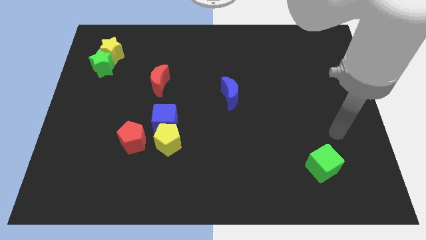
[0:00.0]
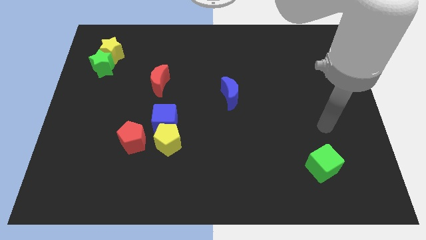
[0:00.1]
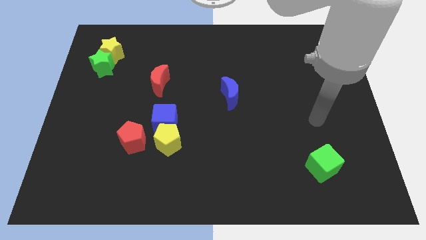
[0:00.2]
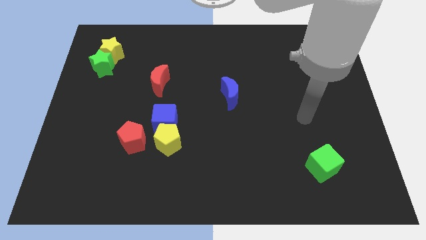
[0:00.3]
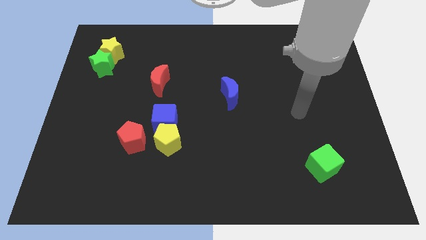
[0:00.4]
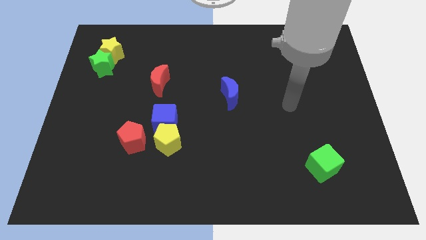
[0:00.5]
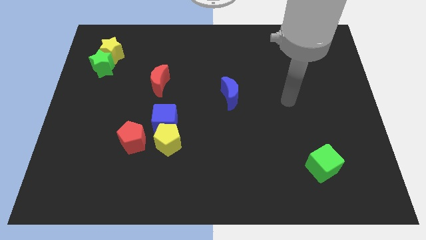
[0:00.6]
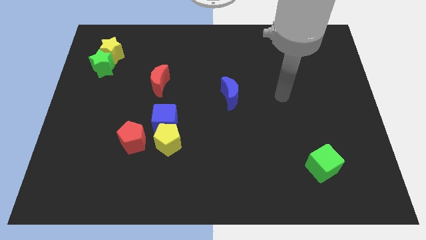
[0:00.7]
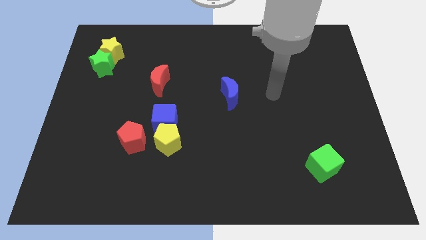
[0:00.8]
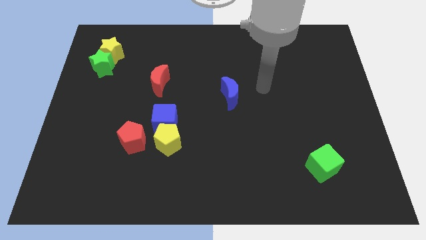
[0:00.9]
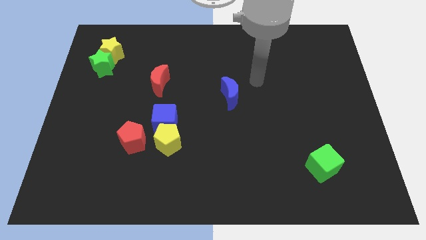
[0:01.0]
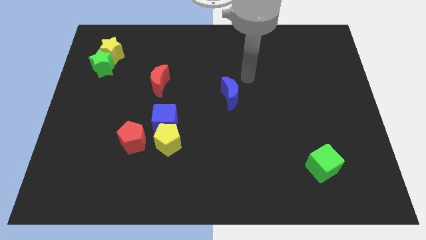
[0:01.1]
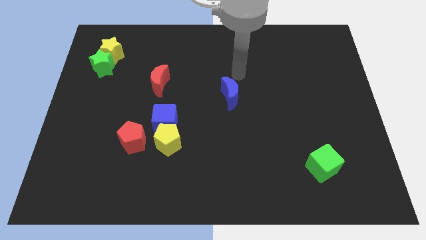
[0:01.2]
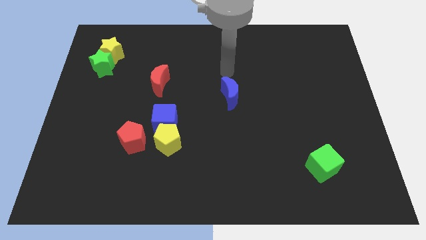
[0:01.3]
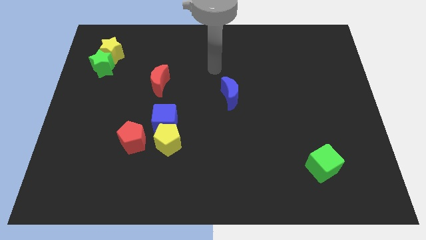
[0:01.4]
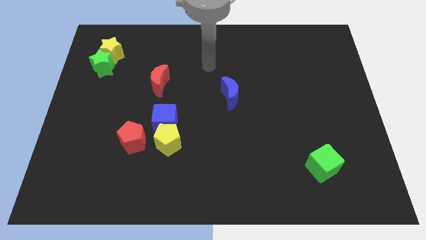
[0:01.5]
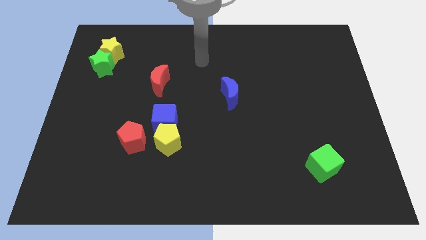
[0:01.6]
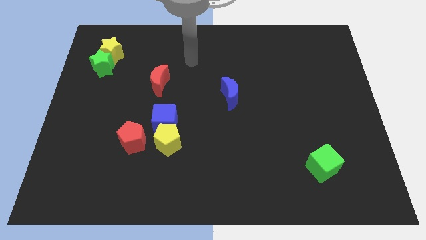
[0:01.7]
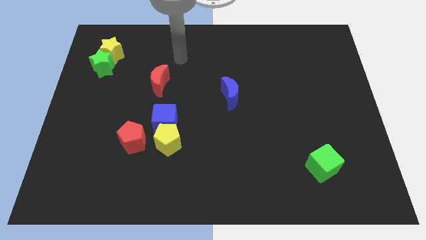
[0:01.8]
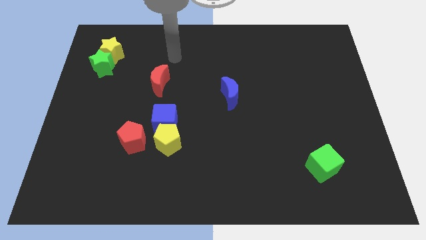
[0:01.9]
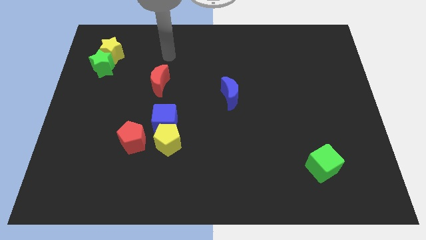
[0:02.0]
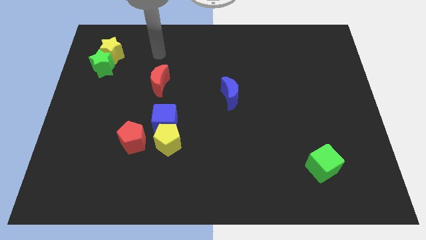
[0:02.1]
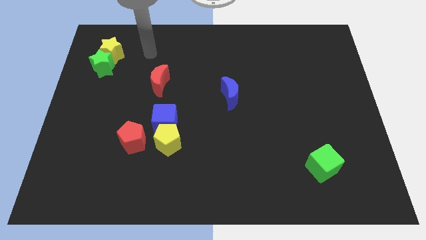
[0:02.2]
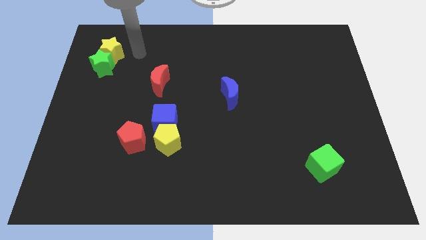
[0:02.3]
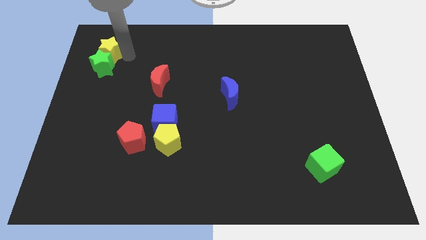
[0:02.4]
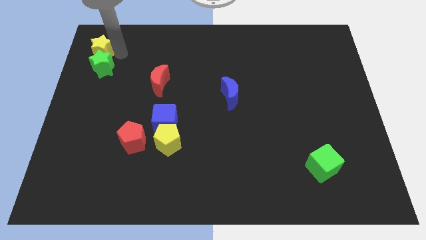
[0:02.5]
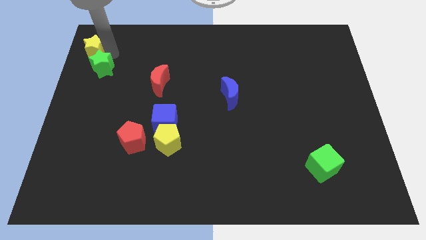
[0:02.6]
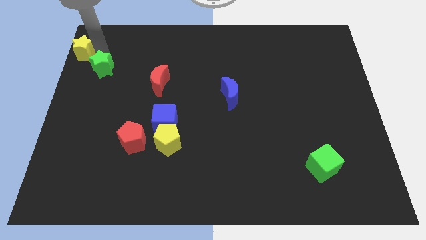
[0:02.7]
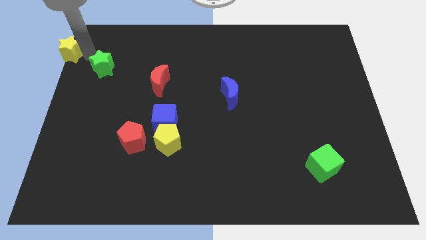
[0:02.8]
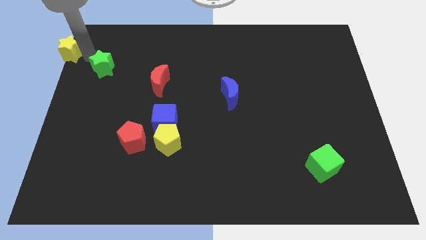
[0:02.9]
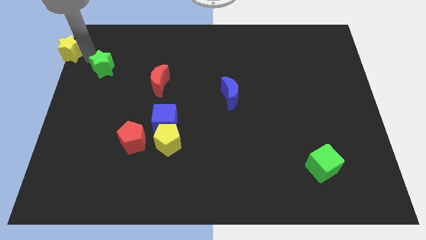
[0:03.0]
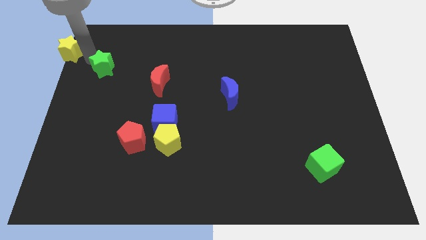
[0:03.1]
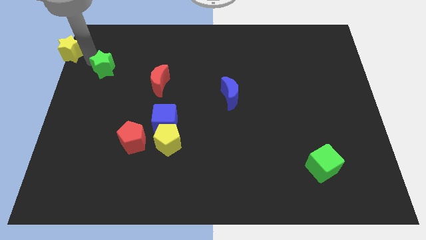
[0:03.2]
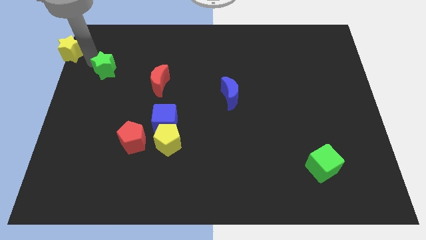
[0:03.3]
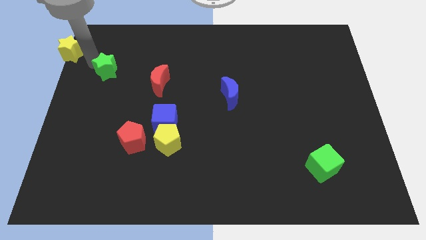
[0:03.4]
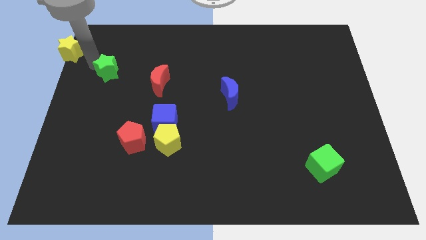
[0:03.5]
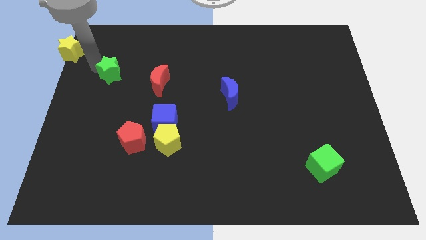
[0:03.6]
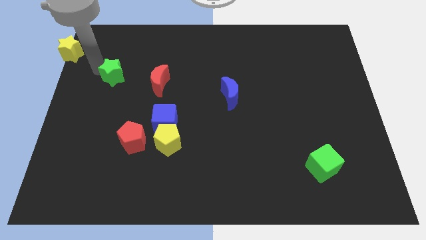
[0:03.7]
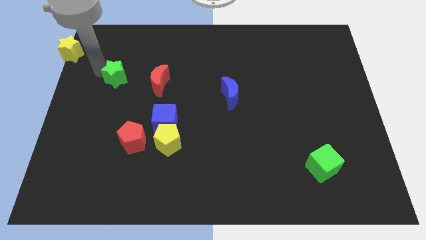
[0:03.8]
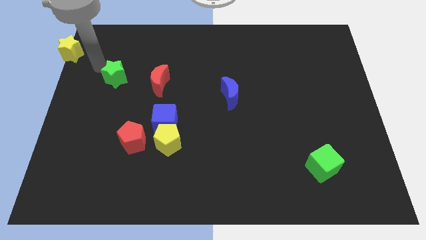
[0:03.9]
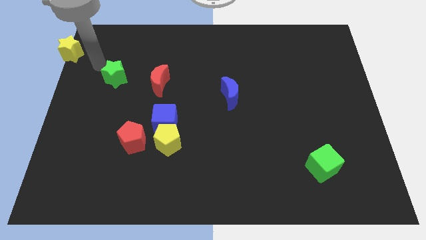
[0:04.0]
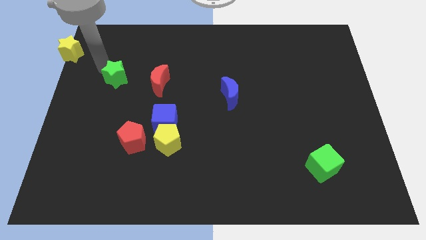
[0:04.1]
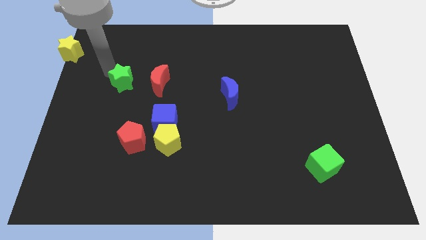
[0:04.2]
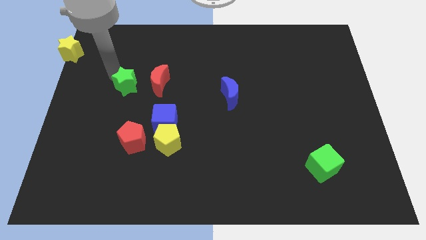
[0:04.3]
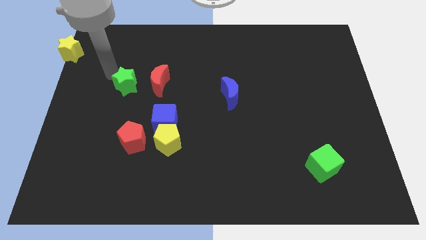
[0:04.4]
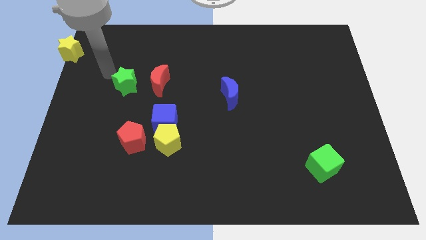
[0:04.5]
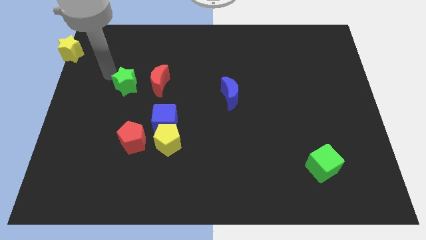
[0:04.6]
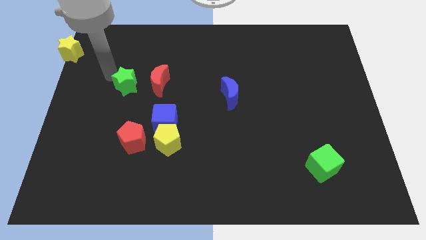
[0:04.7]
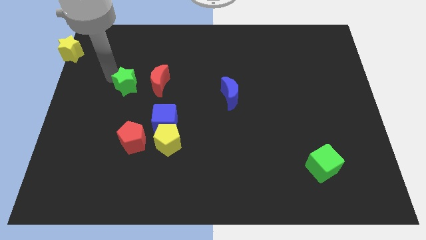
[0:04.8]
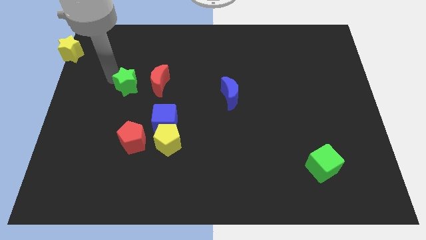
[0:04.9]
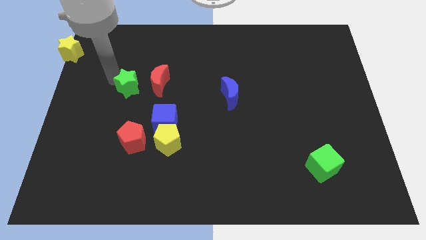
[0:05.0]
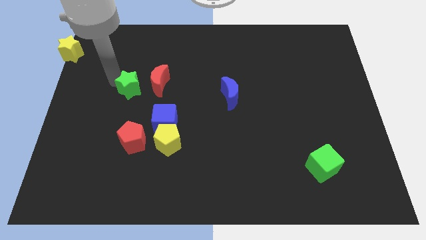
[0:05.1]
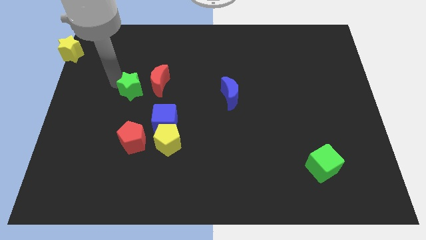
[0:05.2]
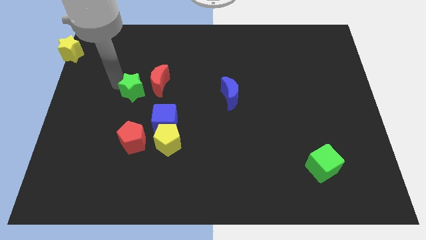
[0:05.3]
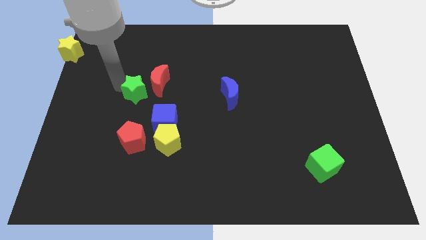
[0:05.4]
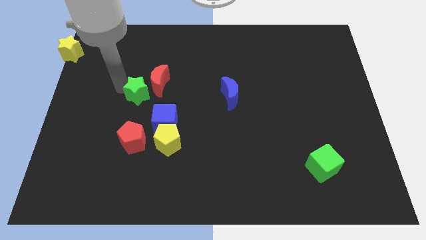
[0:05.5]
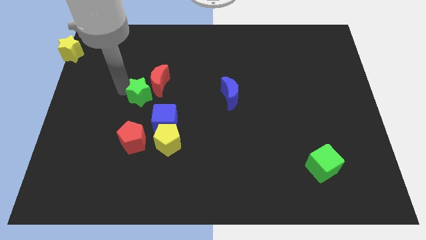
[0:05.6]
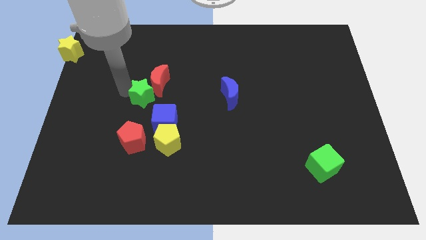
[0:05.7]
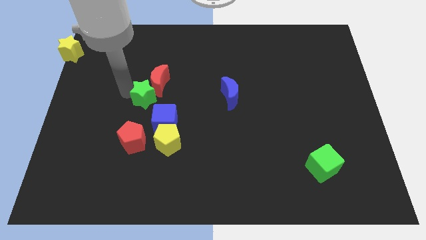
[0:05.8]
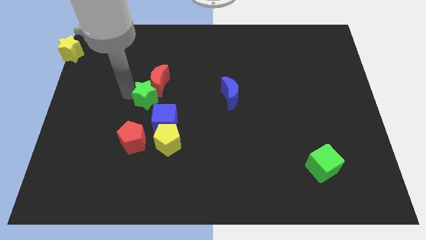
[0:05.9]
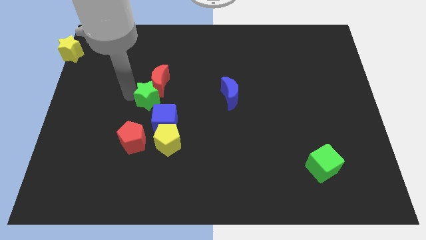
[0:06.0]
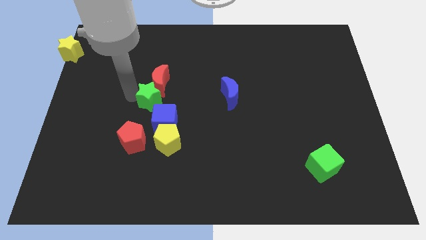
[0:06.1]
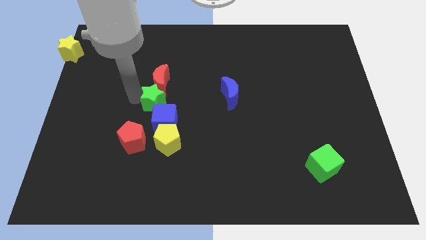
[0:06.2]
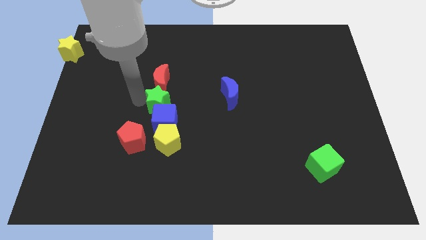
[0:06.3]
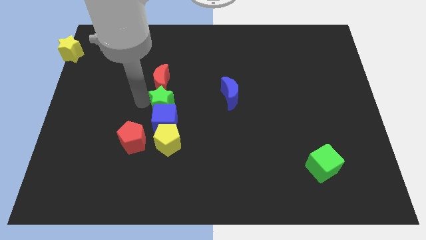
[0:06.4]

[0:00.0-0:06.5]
move the green star diagonally down and to the right

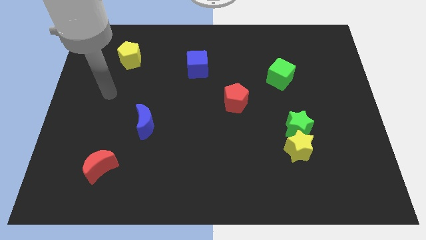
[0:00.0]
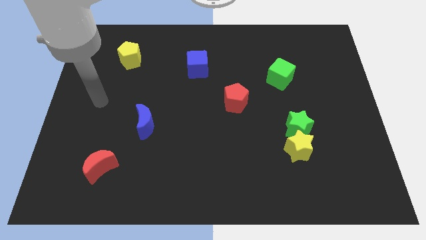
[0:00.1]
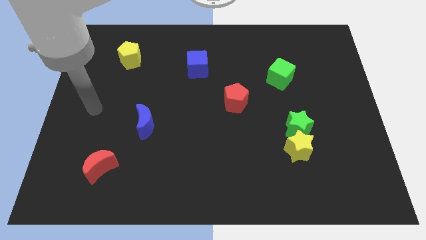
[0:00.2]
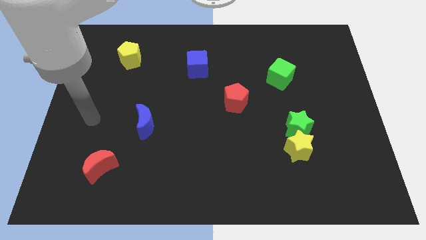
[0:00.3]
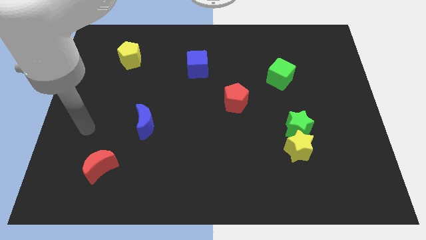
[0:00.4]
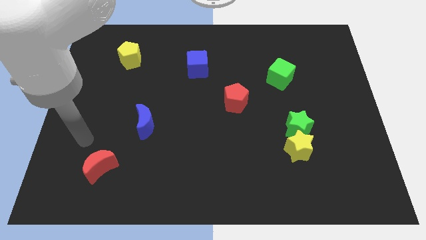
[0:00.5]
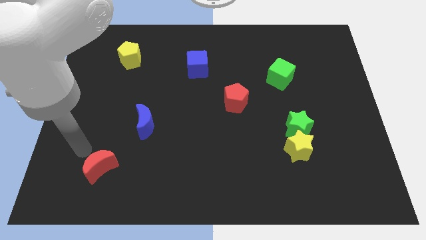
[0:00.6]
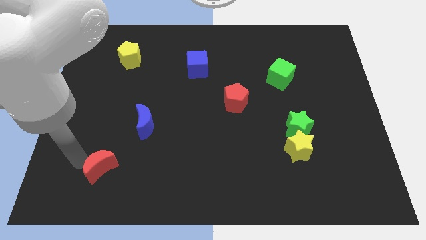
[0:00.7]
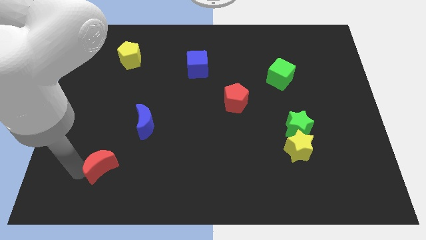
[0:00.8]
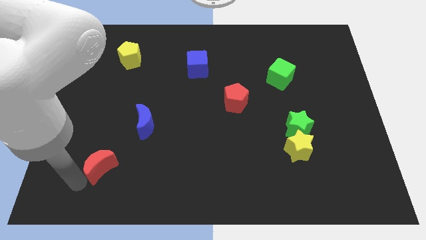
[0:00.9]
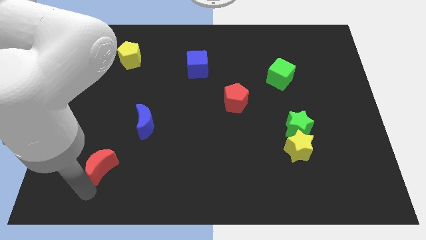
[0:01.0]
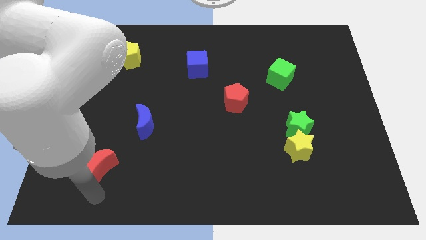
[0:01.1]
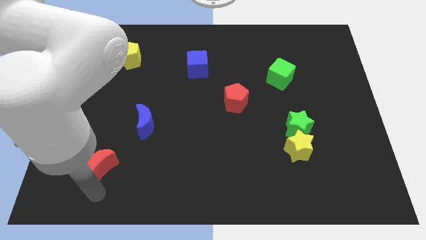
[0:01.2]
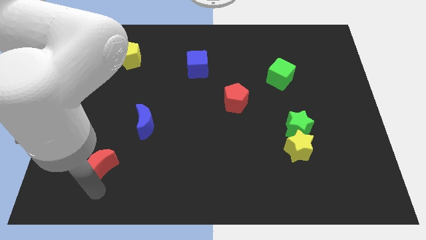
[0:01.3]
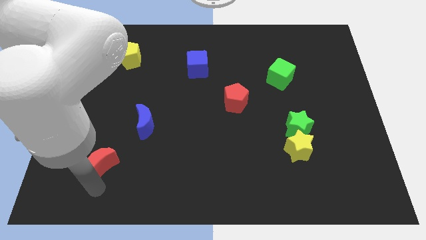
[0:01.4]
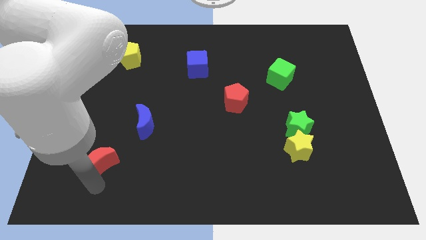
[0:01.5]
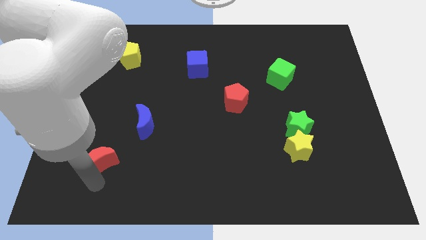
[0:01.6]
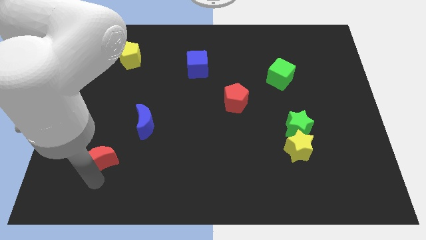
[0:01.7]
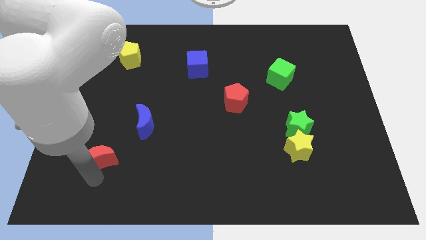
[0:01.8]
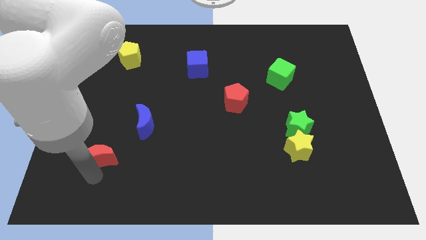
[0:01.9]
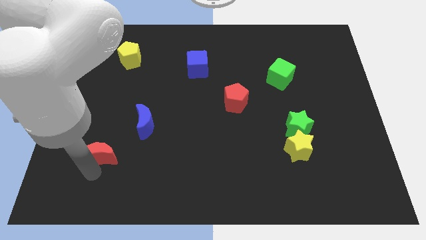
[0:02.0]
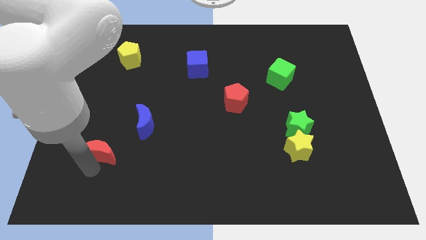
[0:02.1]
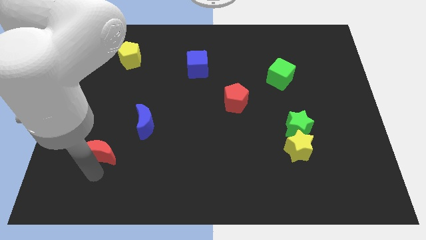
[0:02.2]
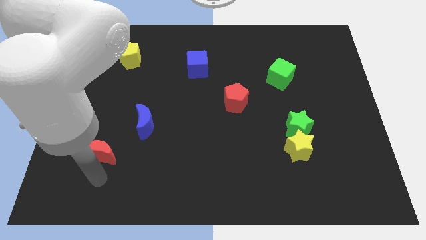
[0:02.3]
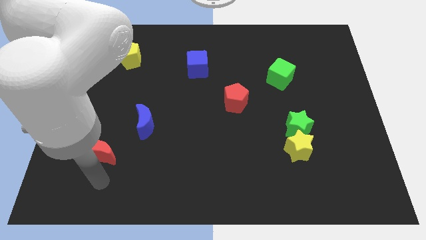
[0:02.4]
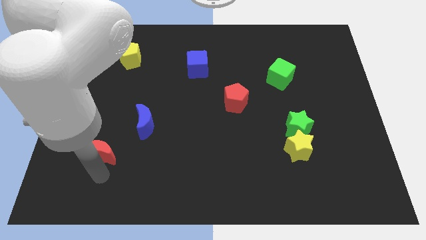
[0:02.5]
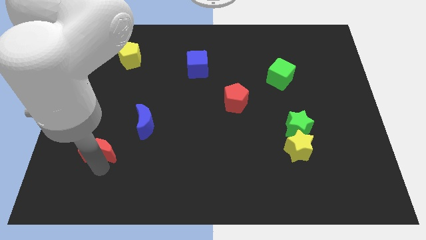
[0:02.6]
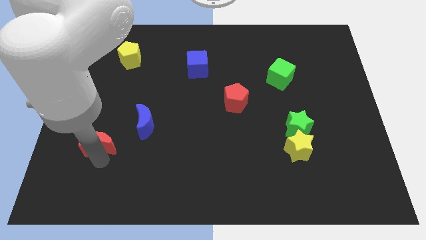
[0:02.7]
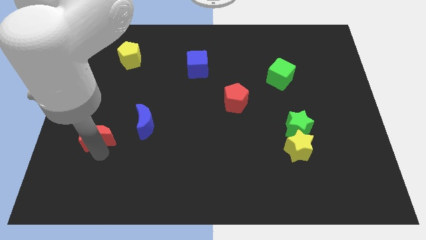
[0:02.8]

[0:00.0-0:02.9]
slide the red moon up slightly
